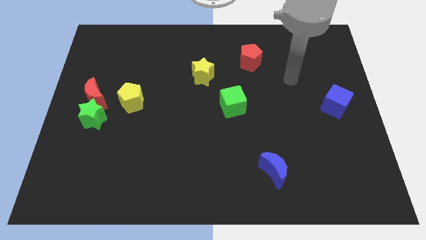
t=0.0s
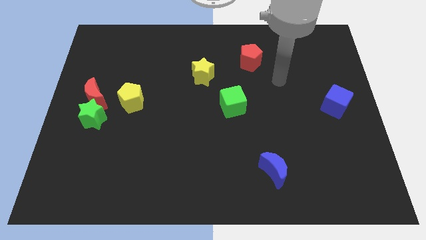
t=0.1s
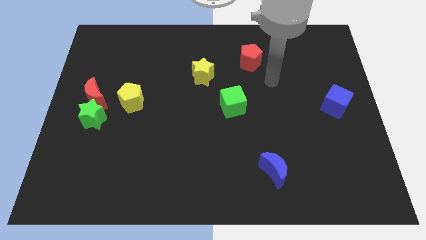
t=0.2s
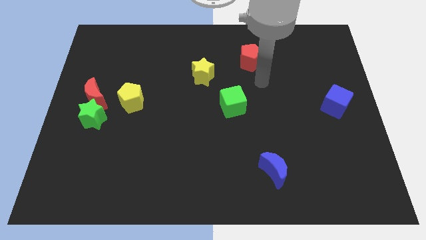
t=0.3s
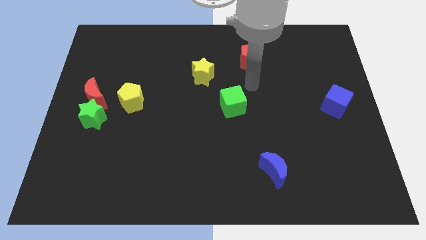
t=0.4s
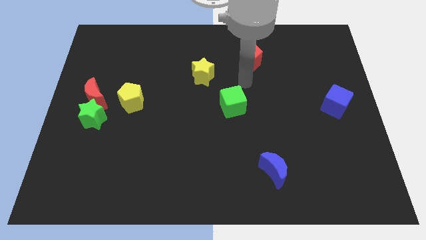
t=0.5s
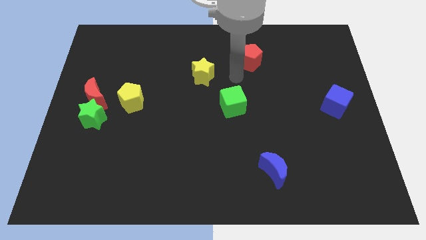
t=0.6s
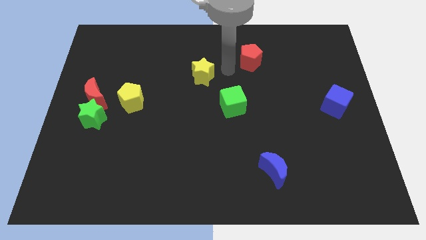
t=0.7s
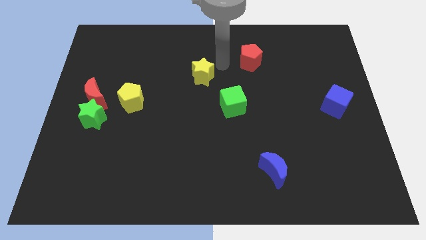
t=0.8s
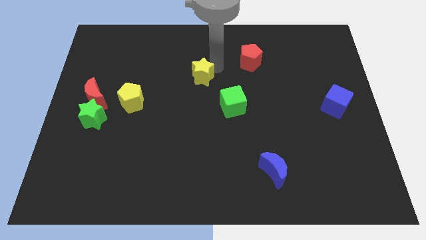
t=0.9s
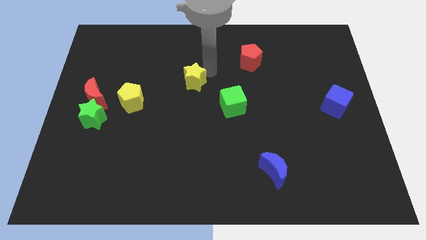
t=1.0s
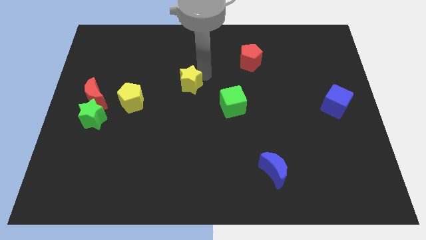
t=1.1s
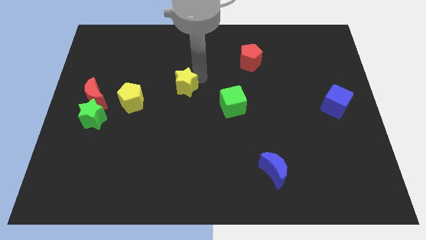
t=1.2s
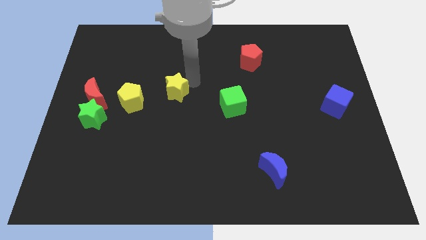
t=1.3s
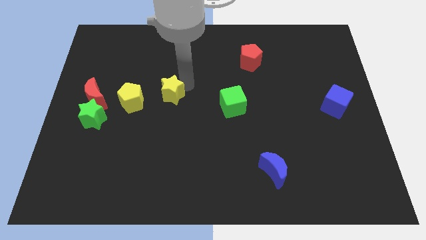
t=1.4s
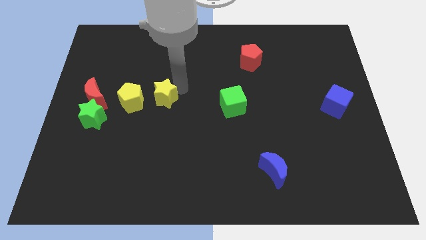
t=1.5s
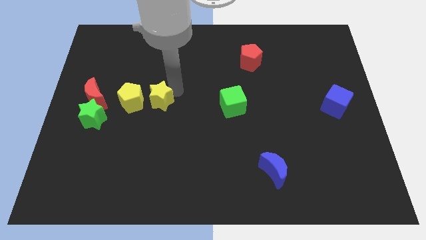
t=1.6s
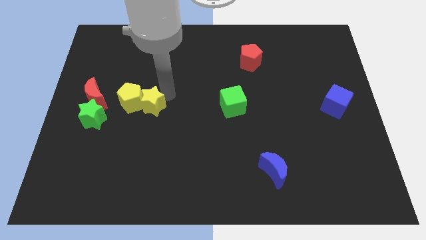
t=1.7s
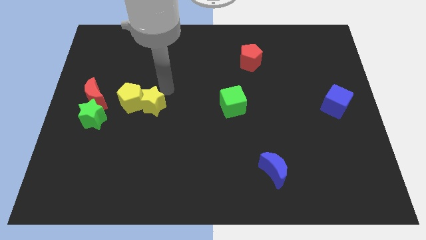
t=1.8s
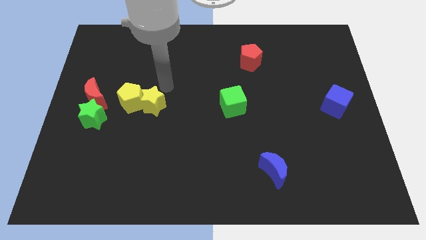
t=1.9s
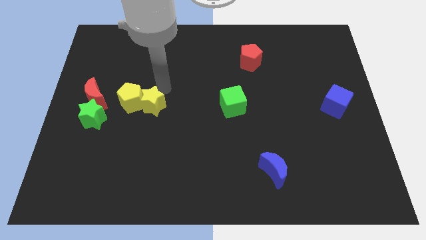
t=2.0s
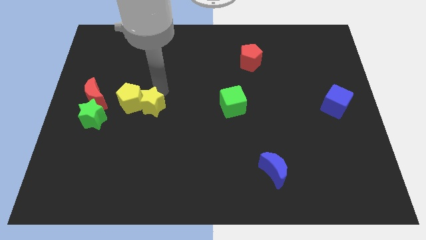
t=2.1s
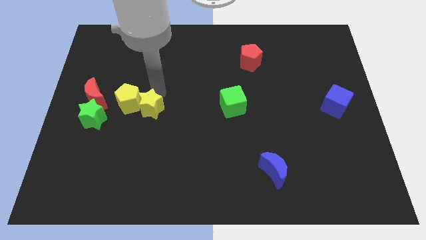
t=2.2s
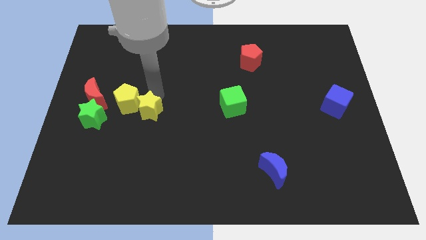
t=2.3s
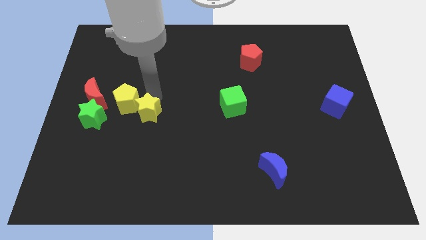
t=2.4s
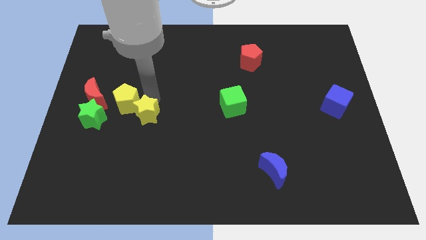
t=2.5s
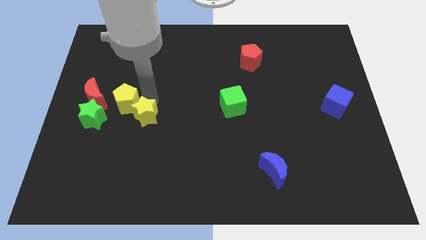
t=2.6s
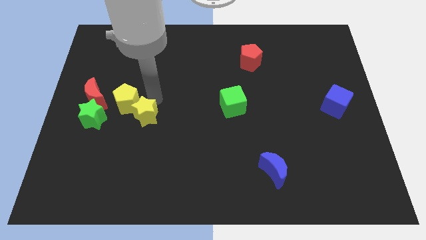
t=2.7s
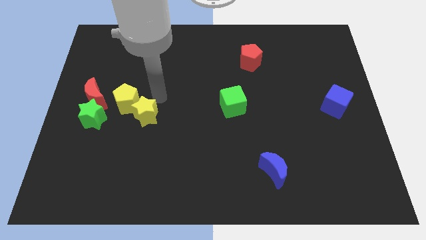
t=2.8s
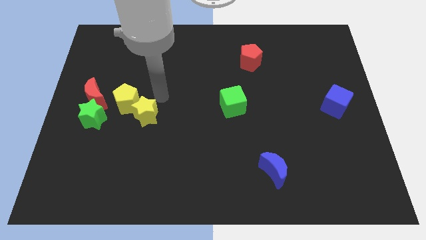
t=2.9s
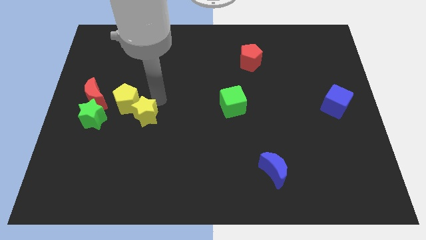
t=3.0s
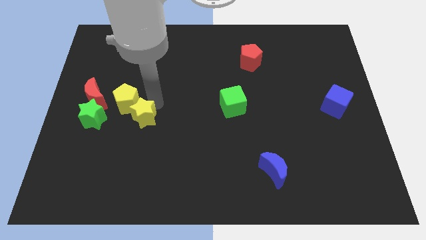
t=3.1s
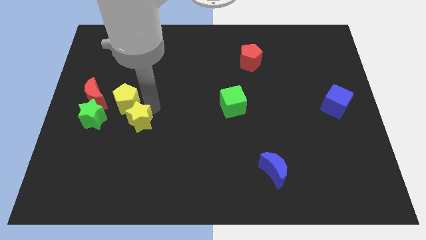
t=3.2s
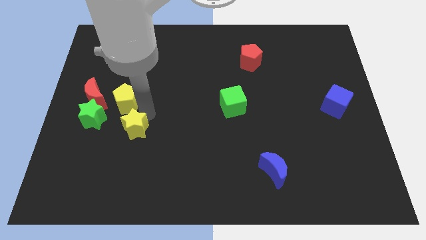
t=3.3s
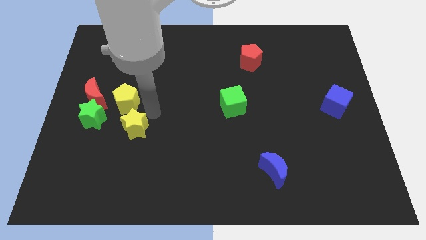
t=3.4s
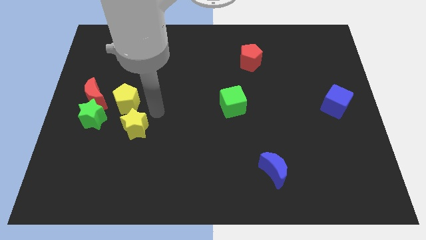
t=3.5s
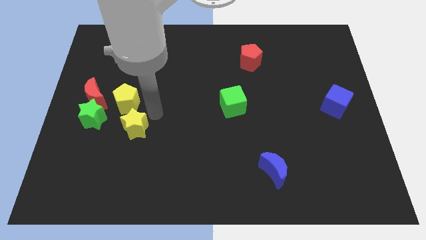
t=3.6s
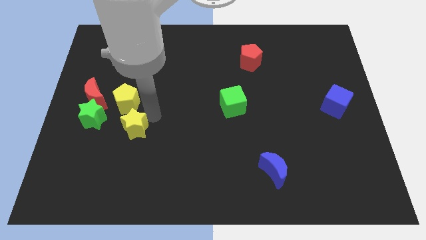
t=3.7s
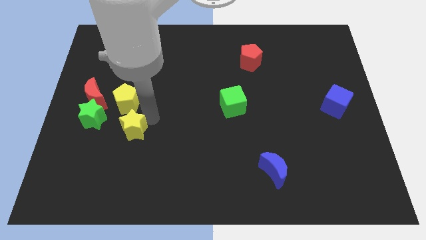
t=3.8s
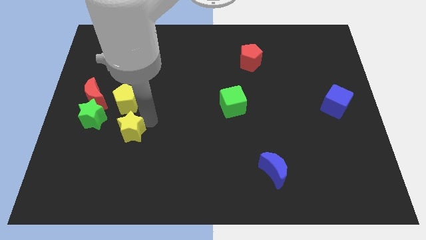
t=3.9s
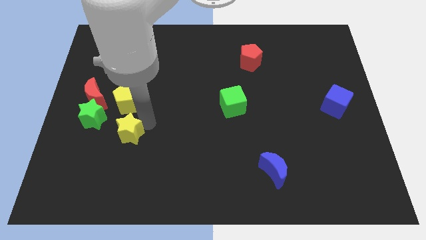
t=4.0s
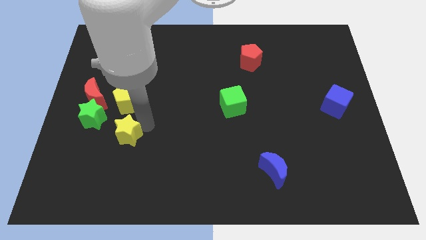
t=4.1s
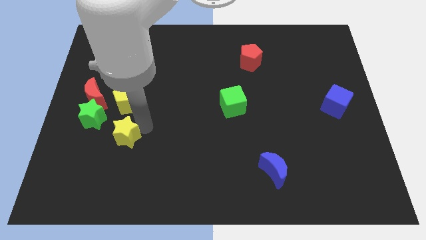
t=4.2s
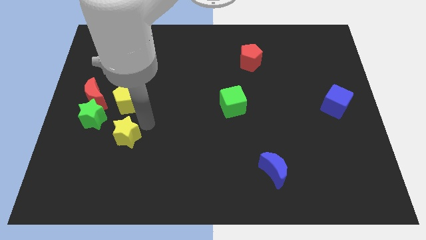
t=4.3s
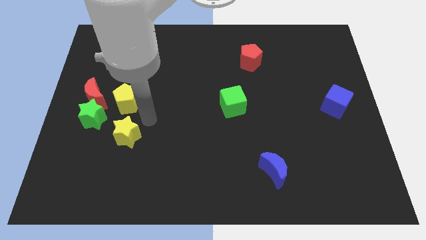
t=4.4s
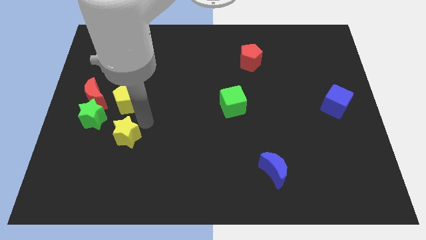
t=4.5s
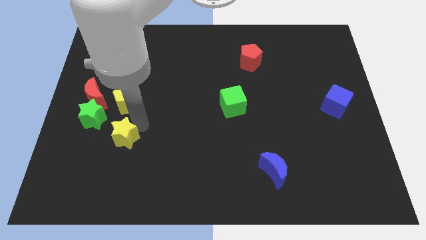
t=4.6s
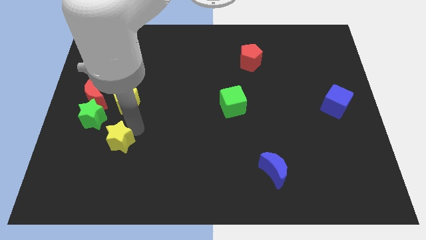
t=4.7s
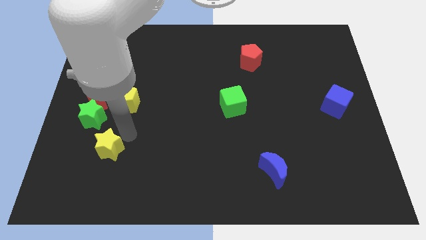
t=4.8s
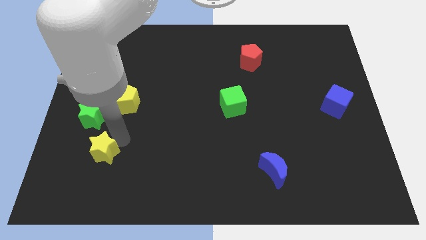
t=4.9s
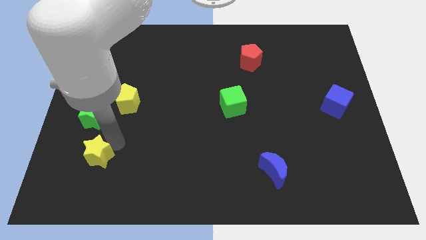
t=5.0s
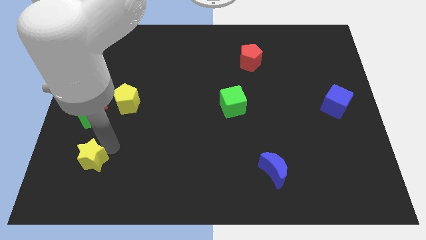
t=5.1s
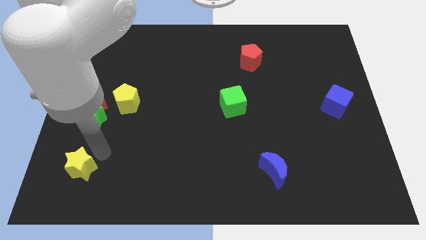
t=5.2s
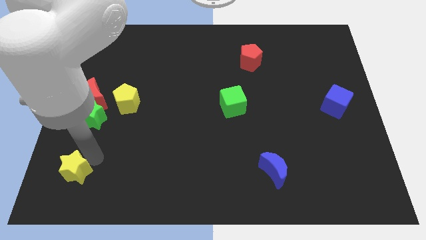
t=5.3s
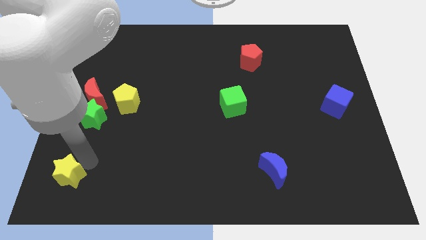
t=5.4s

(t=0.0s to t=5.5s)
put the yellow star to the bottom left corner

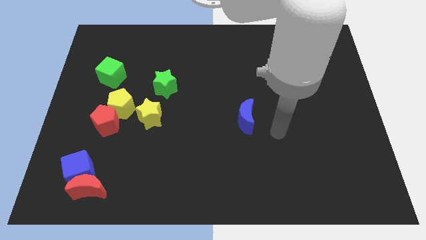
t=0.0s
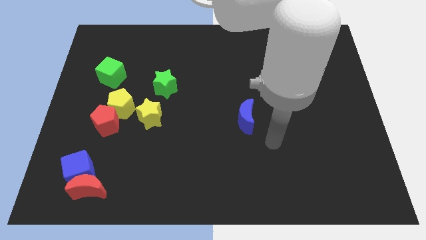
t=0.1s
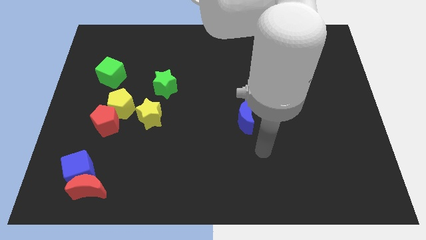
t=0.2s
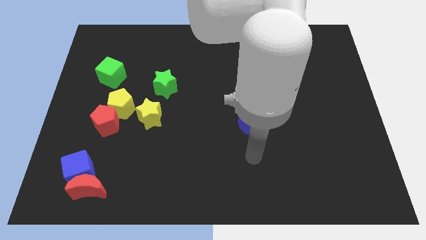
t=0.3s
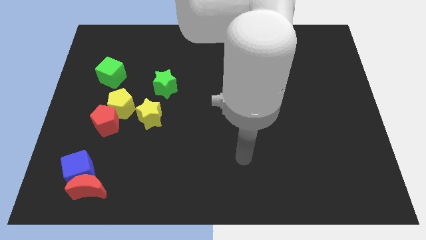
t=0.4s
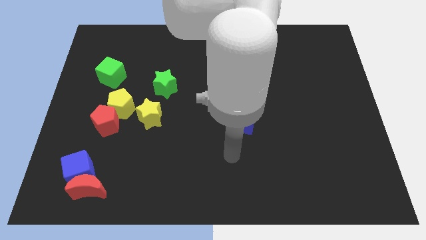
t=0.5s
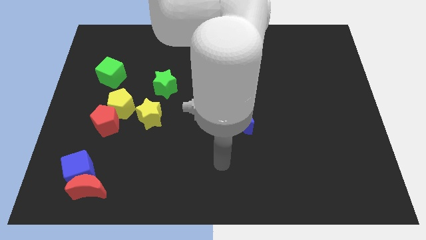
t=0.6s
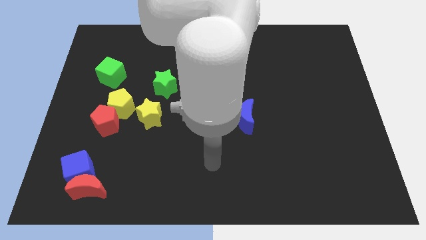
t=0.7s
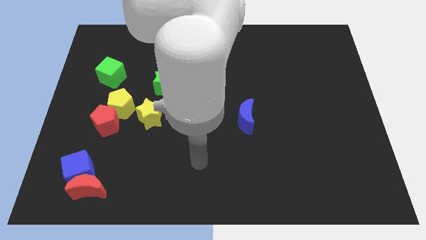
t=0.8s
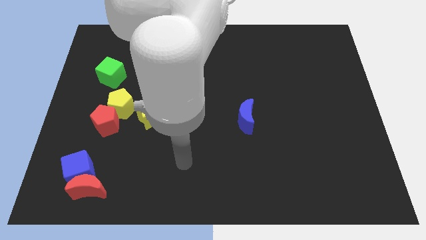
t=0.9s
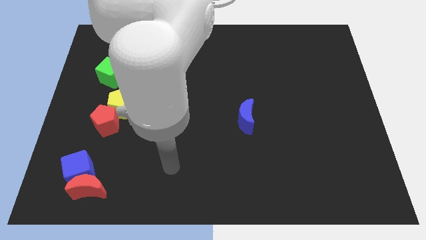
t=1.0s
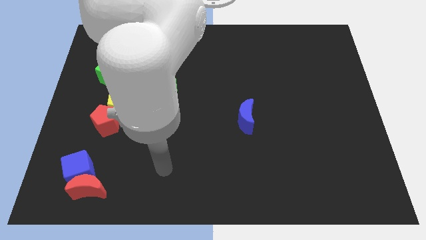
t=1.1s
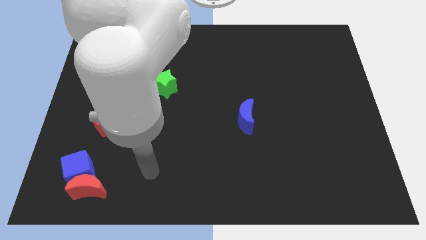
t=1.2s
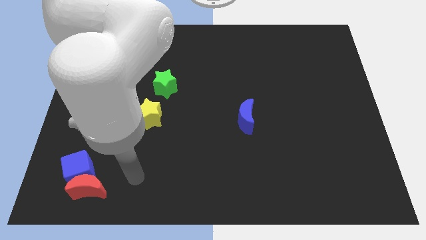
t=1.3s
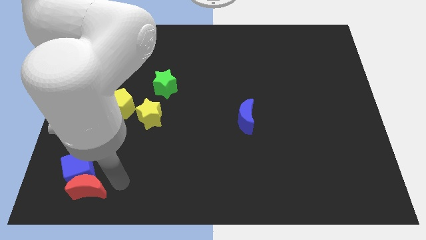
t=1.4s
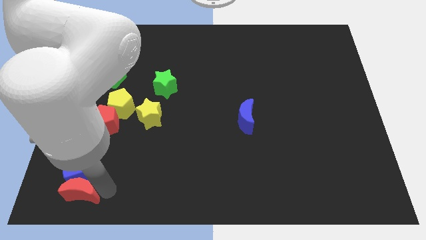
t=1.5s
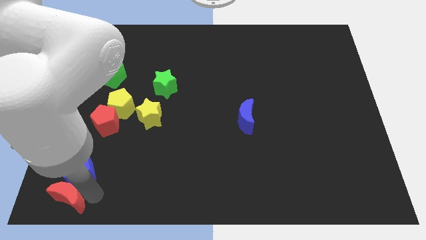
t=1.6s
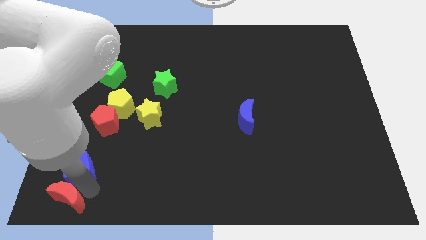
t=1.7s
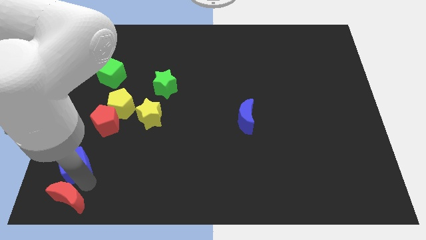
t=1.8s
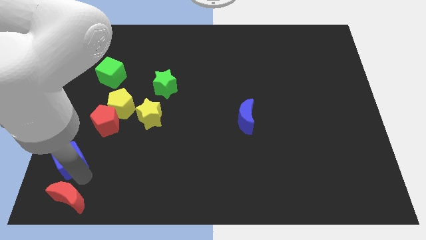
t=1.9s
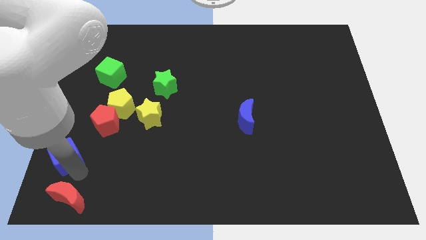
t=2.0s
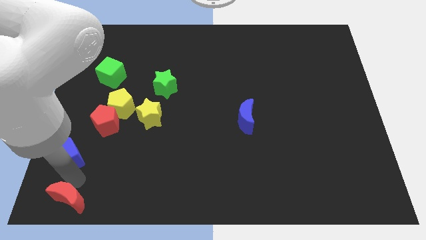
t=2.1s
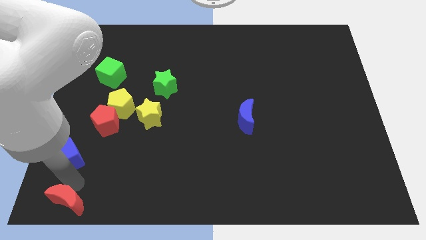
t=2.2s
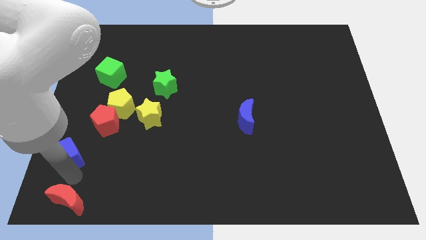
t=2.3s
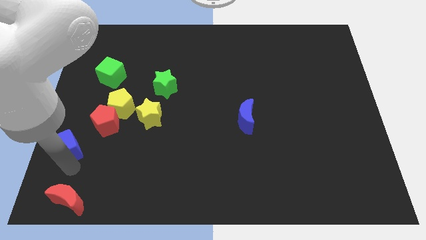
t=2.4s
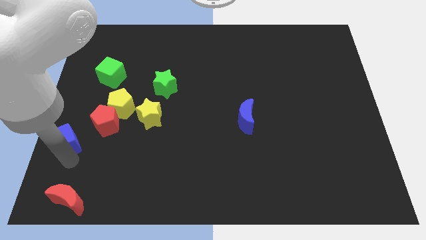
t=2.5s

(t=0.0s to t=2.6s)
put the blue cube to the left side of the board
